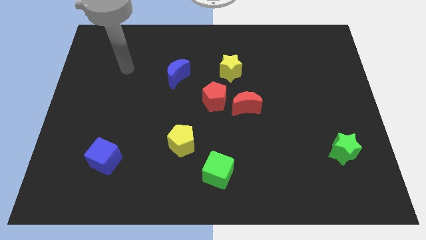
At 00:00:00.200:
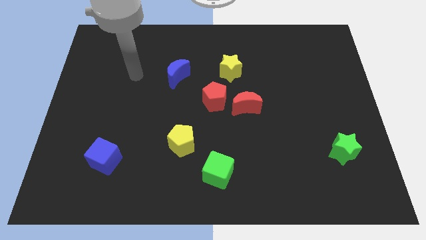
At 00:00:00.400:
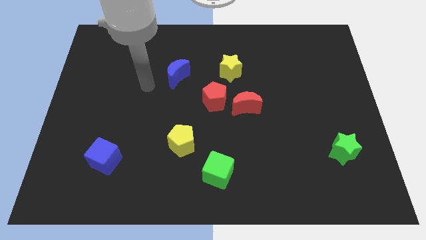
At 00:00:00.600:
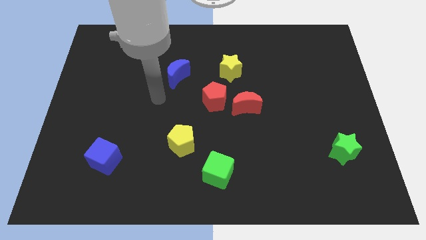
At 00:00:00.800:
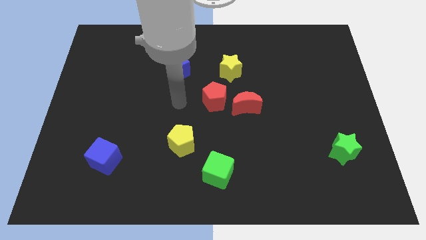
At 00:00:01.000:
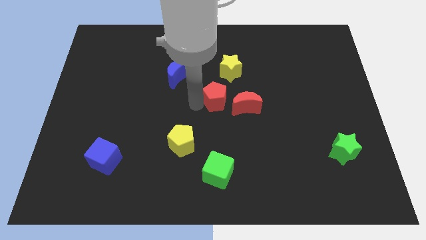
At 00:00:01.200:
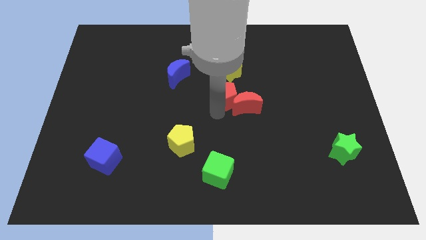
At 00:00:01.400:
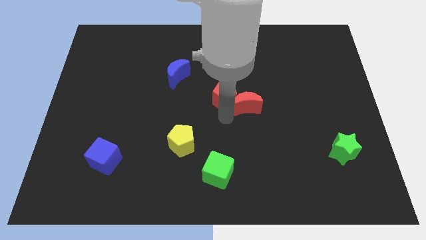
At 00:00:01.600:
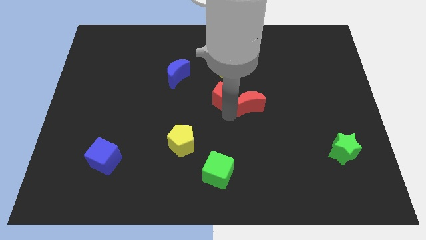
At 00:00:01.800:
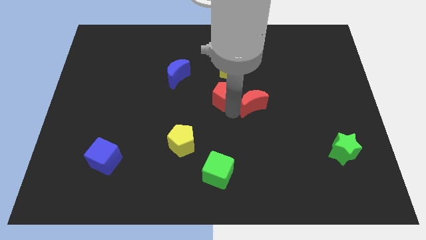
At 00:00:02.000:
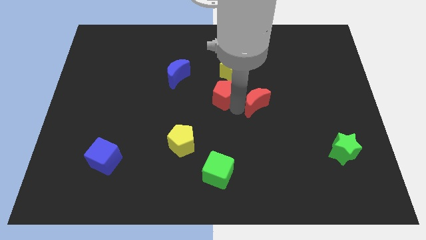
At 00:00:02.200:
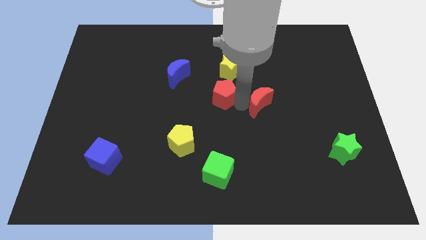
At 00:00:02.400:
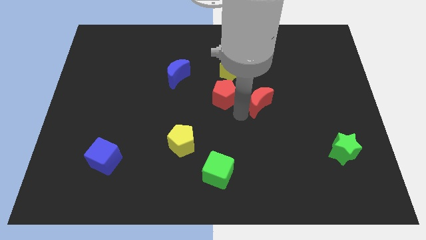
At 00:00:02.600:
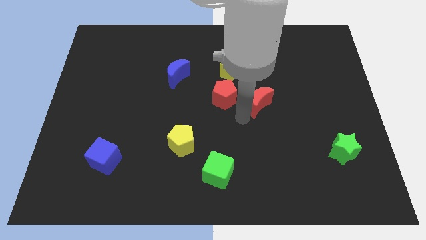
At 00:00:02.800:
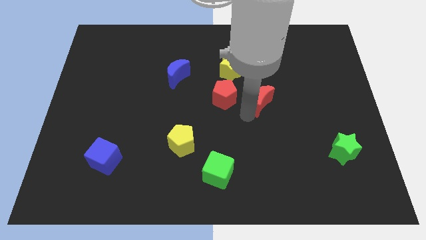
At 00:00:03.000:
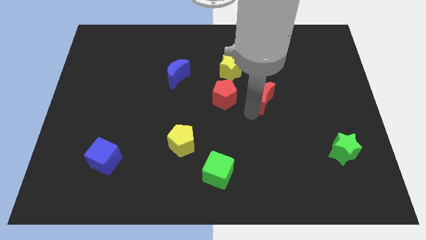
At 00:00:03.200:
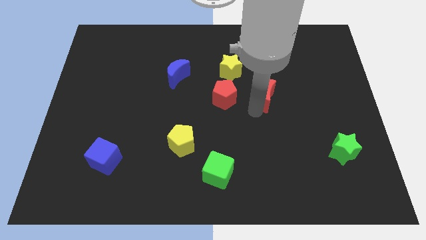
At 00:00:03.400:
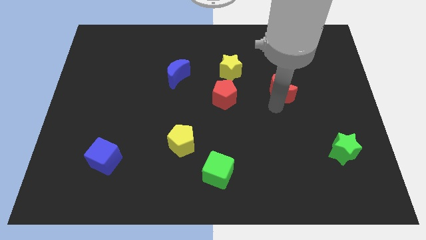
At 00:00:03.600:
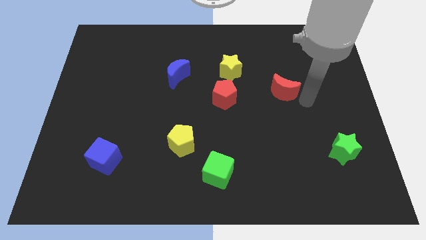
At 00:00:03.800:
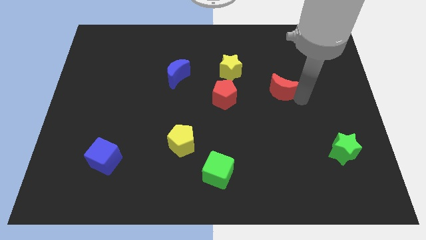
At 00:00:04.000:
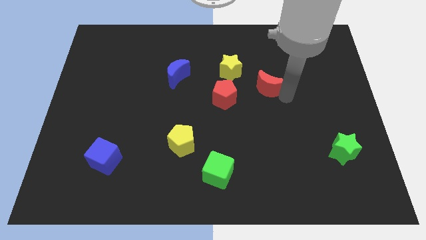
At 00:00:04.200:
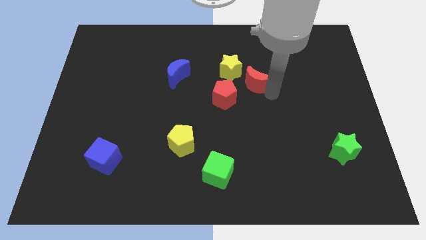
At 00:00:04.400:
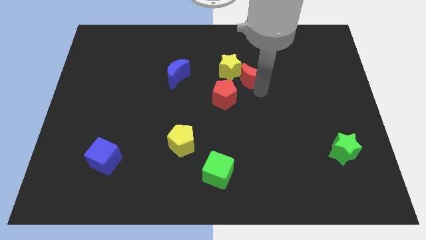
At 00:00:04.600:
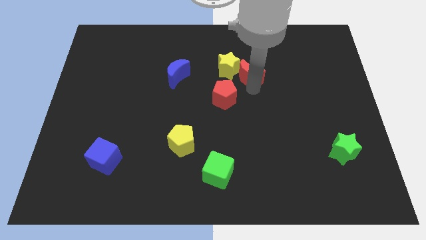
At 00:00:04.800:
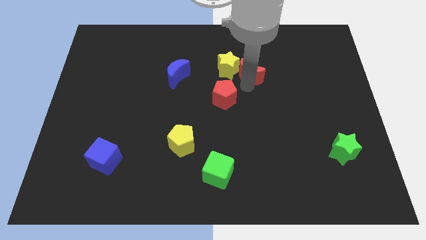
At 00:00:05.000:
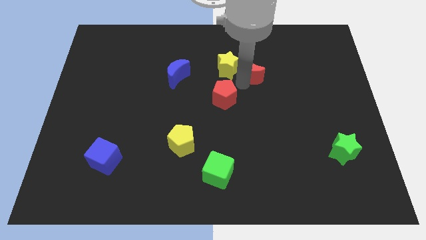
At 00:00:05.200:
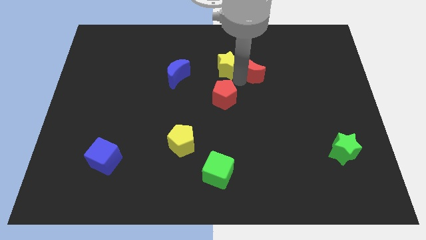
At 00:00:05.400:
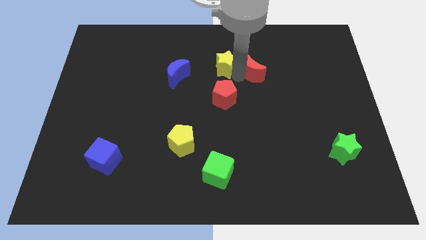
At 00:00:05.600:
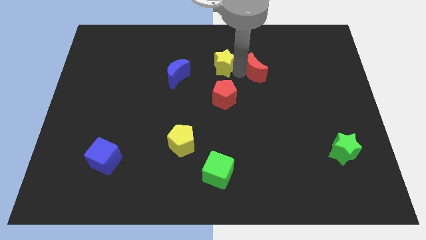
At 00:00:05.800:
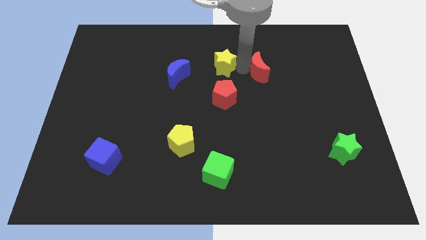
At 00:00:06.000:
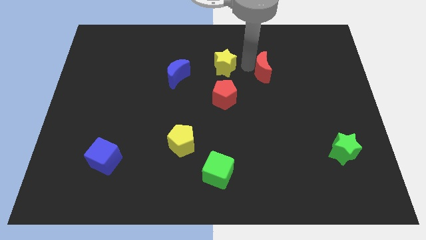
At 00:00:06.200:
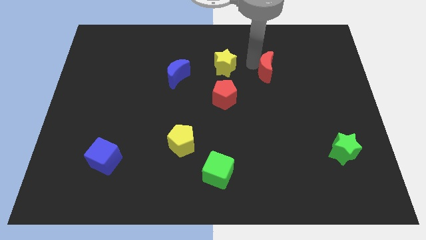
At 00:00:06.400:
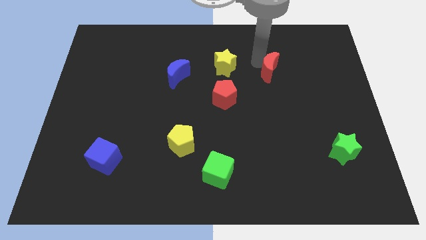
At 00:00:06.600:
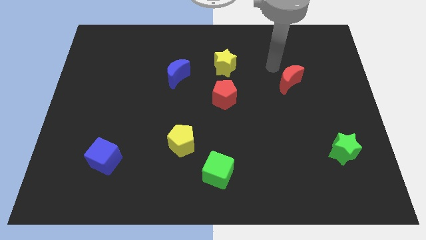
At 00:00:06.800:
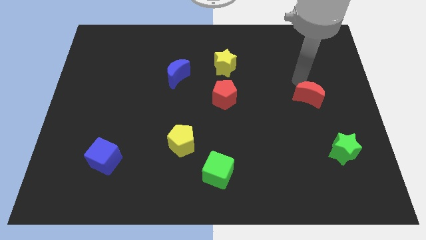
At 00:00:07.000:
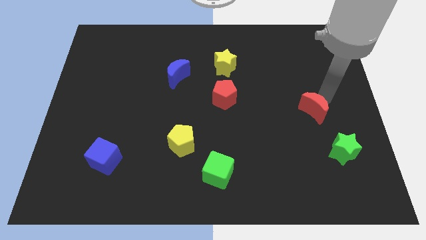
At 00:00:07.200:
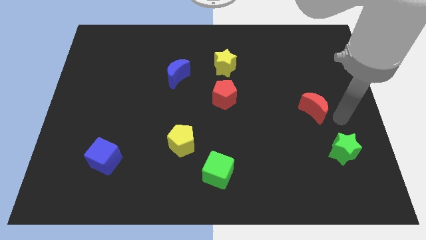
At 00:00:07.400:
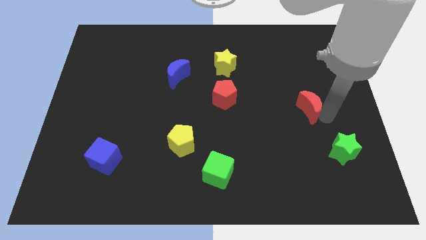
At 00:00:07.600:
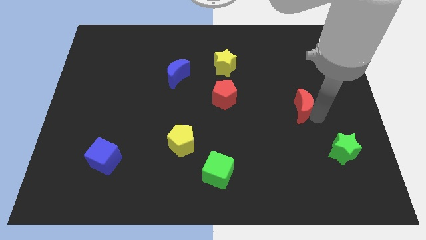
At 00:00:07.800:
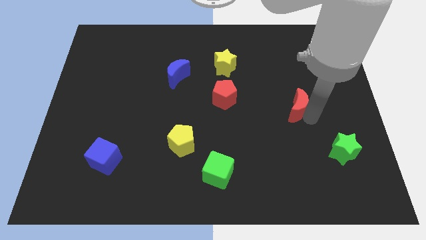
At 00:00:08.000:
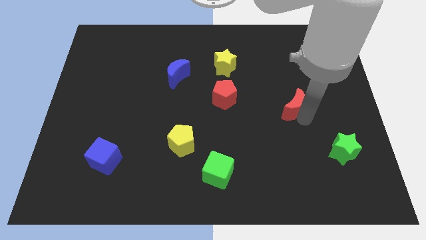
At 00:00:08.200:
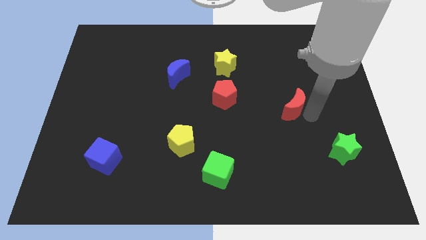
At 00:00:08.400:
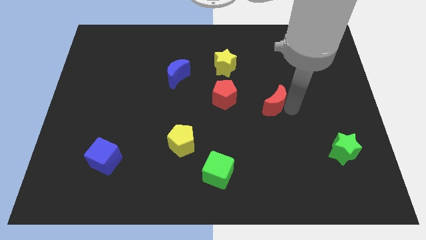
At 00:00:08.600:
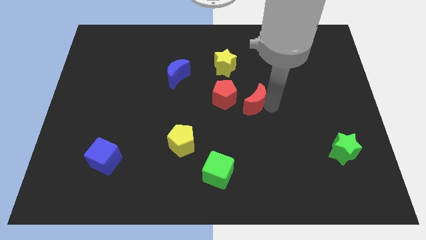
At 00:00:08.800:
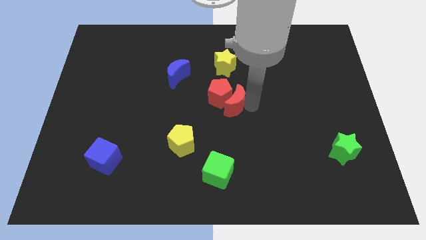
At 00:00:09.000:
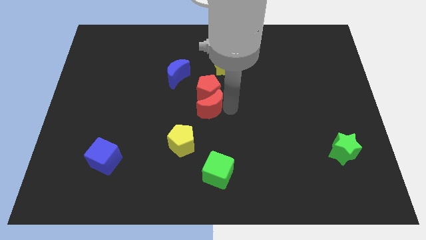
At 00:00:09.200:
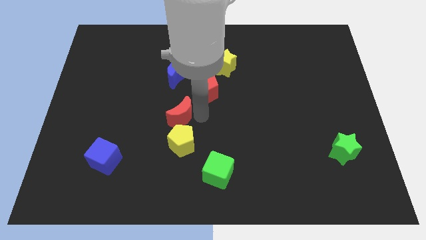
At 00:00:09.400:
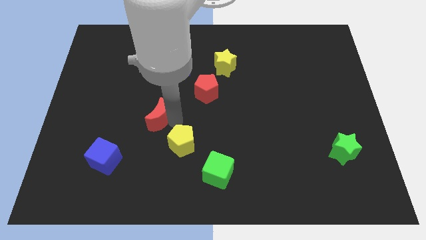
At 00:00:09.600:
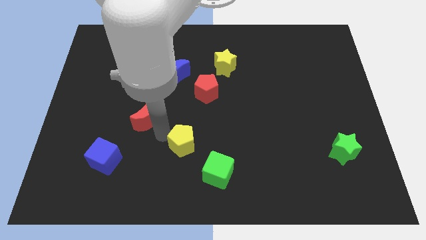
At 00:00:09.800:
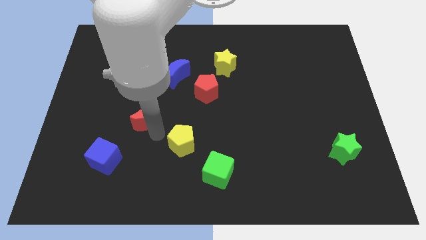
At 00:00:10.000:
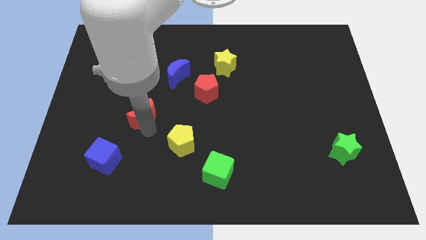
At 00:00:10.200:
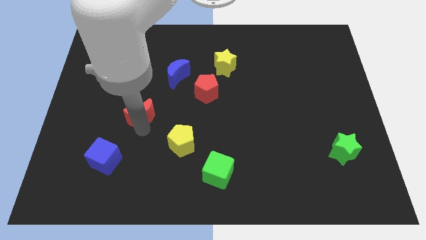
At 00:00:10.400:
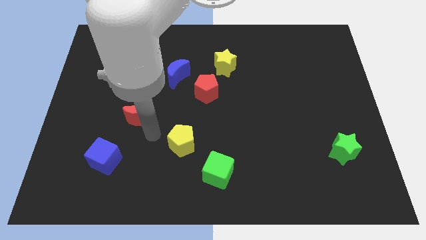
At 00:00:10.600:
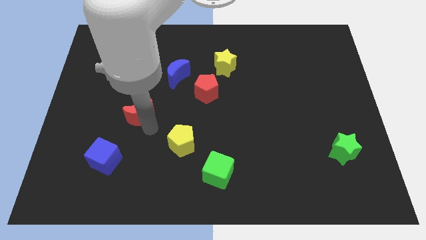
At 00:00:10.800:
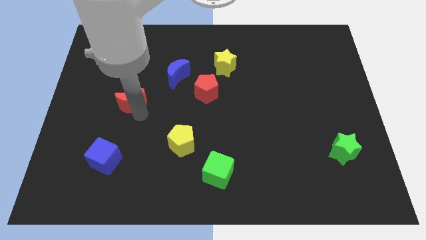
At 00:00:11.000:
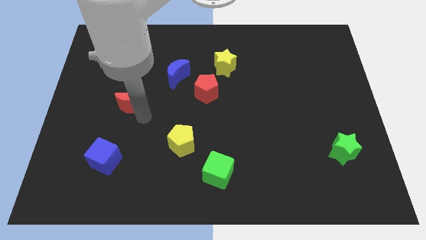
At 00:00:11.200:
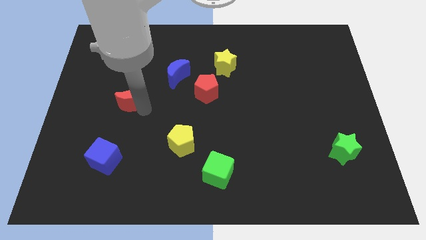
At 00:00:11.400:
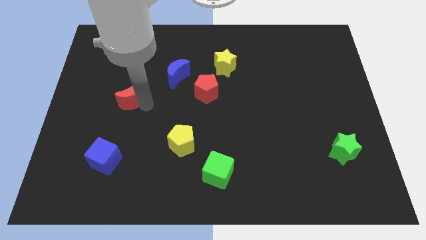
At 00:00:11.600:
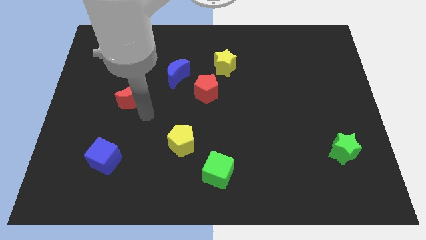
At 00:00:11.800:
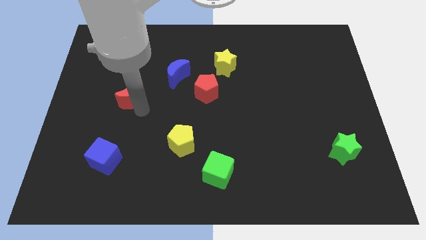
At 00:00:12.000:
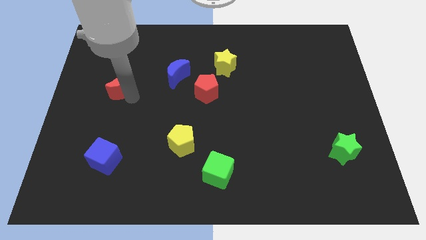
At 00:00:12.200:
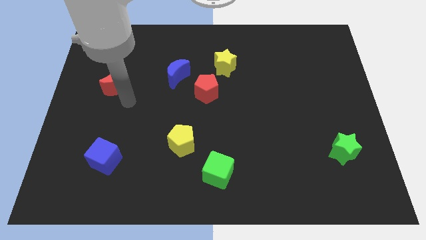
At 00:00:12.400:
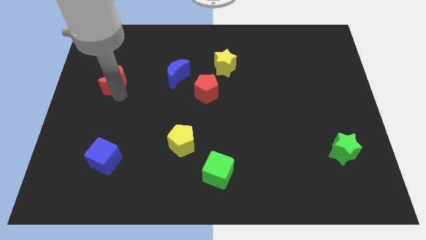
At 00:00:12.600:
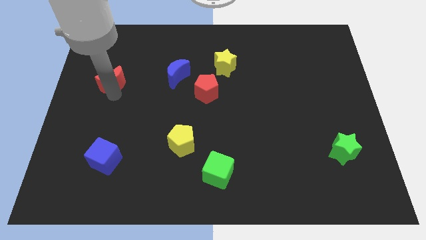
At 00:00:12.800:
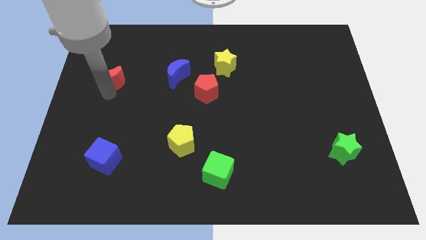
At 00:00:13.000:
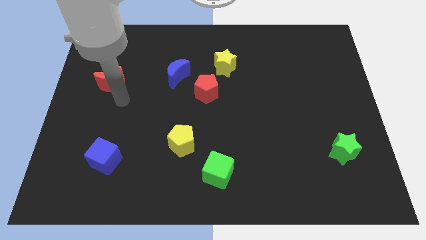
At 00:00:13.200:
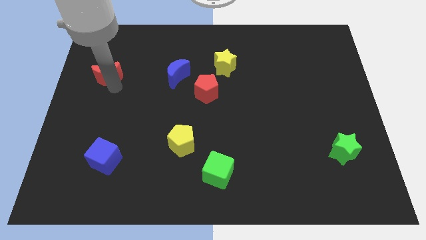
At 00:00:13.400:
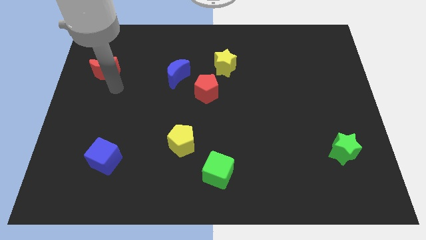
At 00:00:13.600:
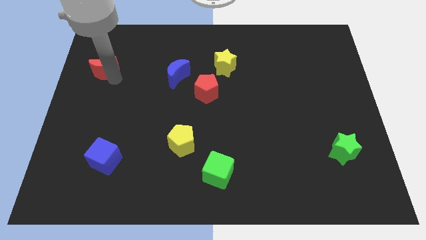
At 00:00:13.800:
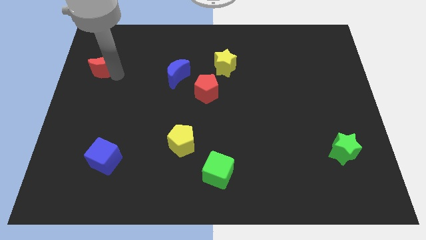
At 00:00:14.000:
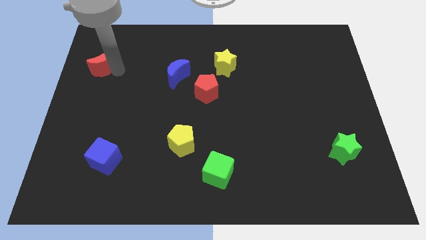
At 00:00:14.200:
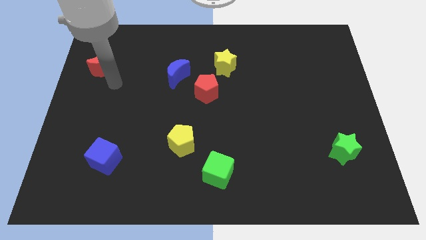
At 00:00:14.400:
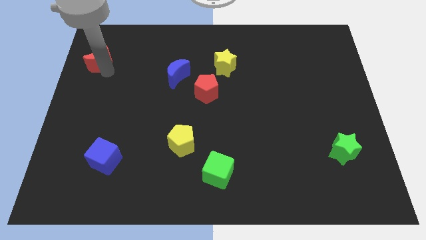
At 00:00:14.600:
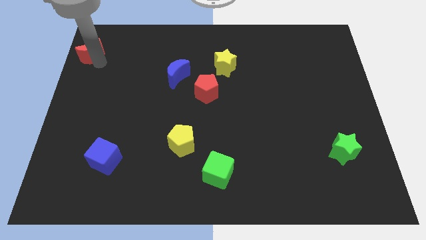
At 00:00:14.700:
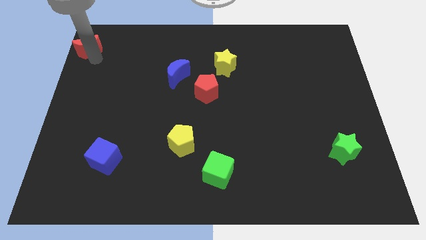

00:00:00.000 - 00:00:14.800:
move the red moon to the top left corner
